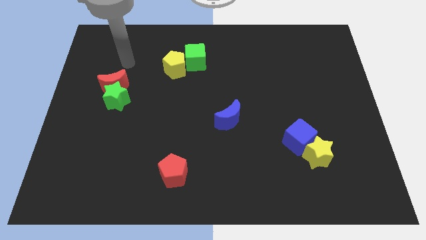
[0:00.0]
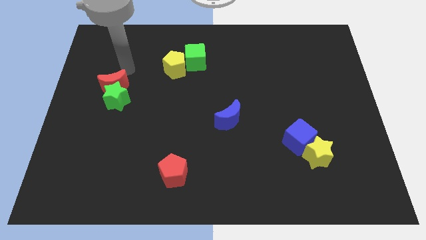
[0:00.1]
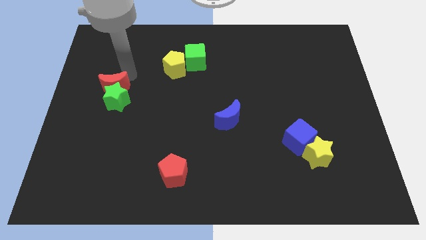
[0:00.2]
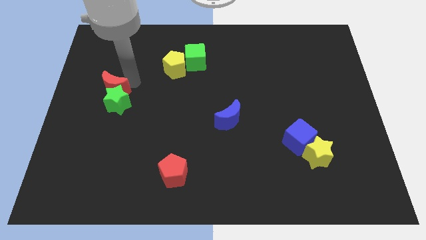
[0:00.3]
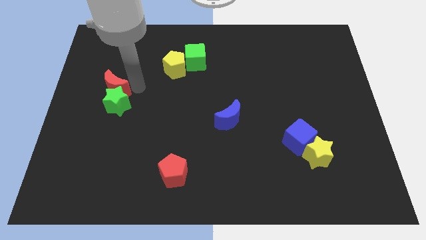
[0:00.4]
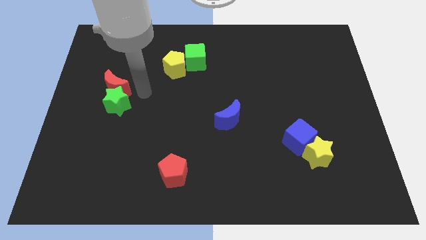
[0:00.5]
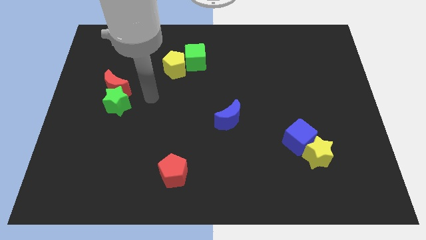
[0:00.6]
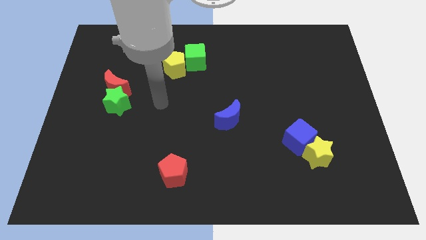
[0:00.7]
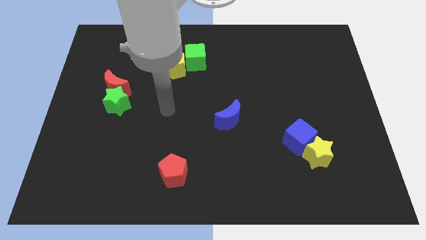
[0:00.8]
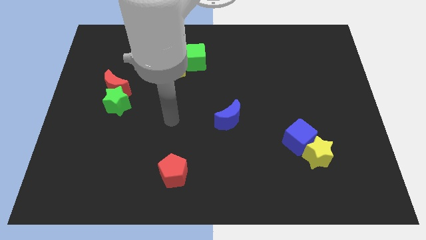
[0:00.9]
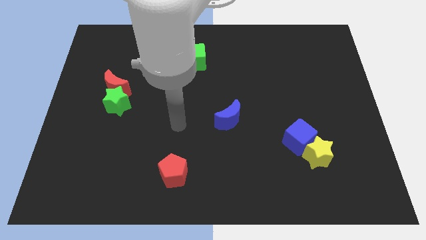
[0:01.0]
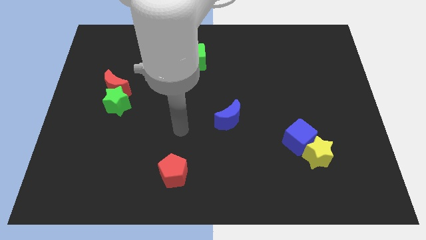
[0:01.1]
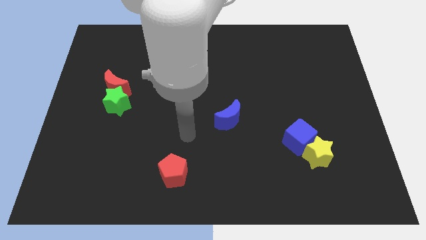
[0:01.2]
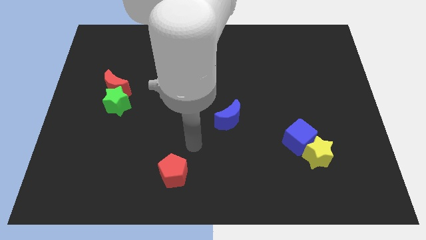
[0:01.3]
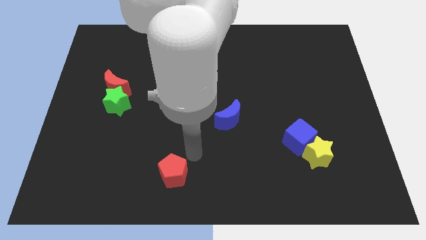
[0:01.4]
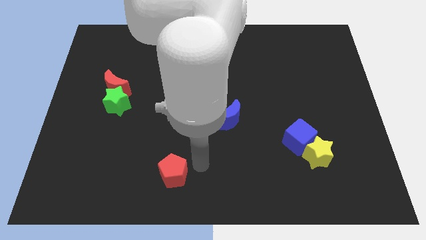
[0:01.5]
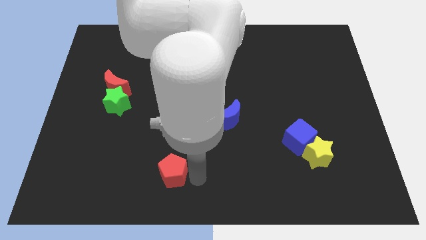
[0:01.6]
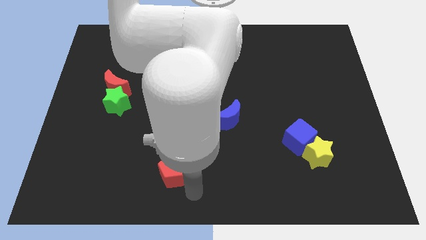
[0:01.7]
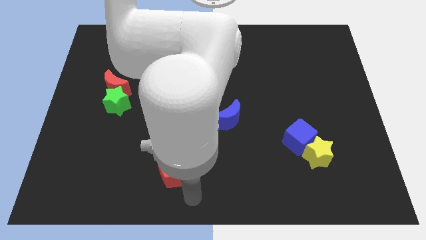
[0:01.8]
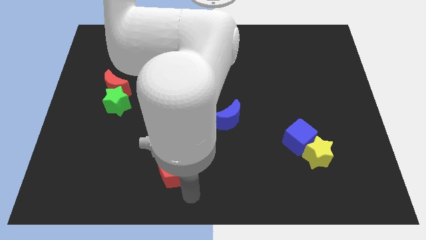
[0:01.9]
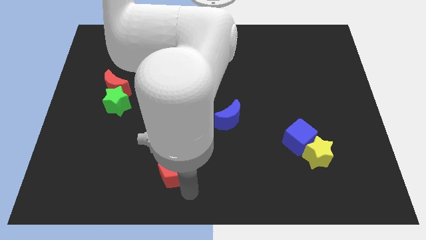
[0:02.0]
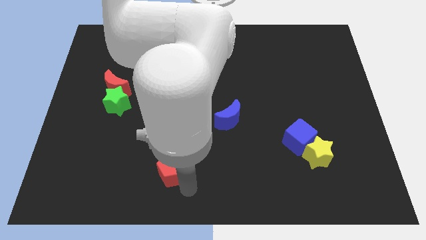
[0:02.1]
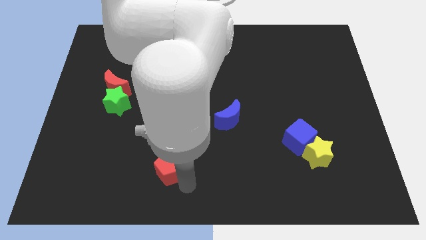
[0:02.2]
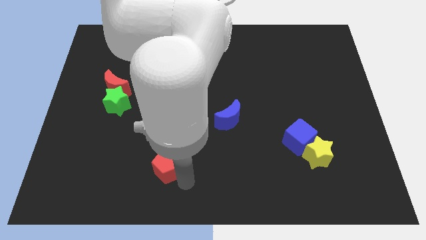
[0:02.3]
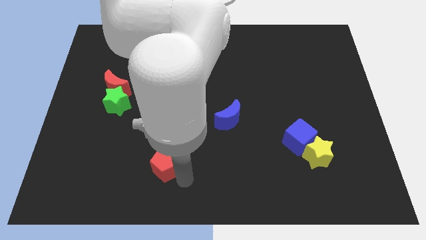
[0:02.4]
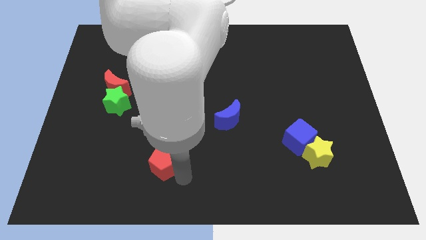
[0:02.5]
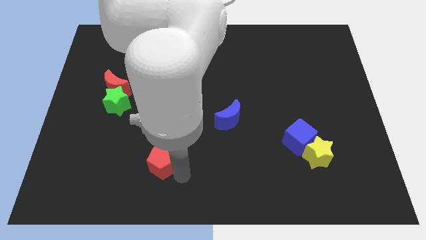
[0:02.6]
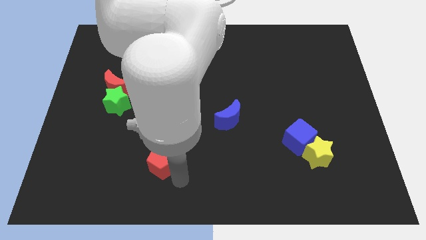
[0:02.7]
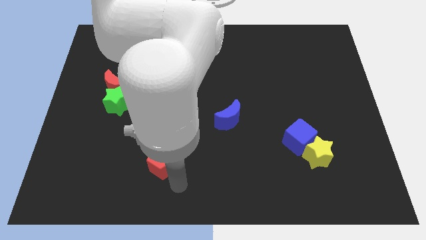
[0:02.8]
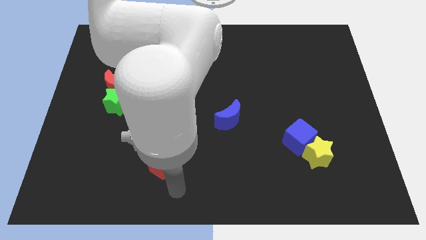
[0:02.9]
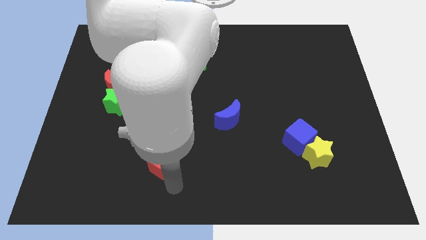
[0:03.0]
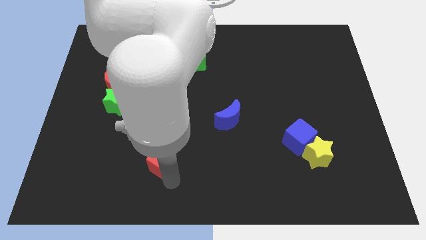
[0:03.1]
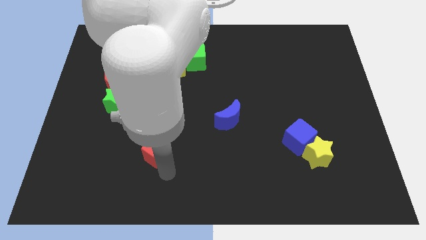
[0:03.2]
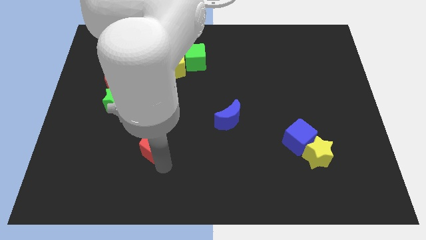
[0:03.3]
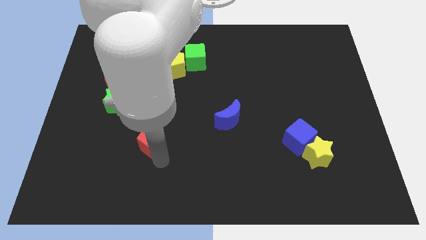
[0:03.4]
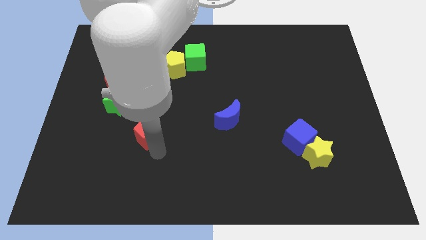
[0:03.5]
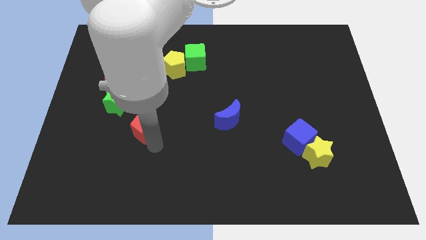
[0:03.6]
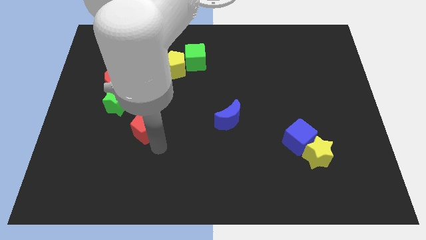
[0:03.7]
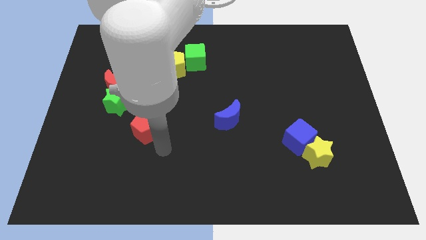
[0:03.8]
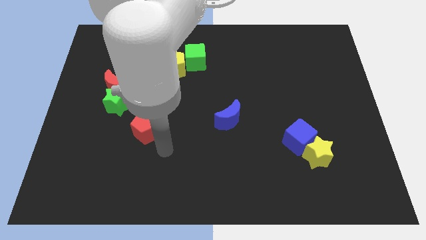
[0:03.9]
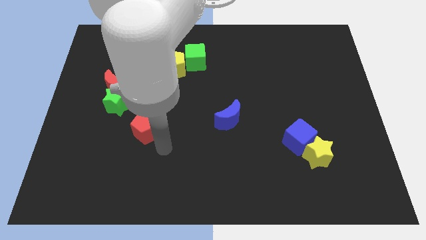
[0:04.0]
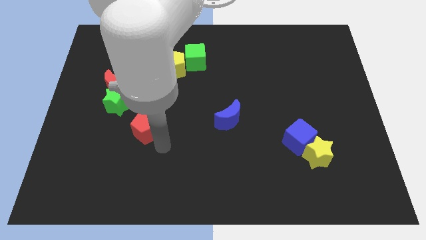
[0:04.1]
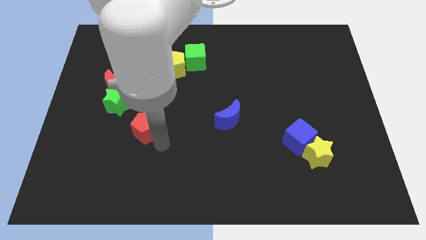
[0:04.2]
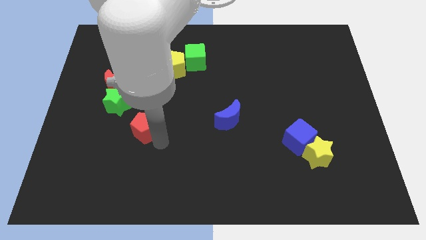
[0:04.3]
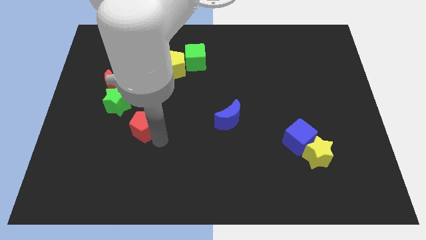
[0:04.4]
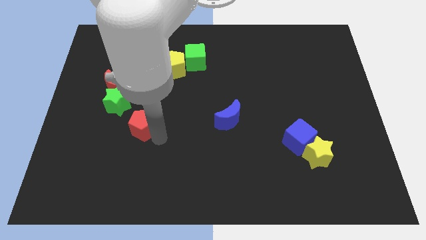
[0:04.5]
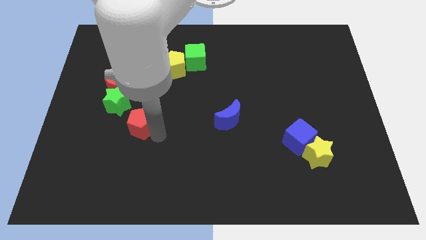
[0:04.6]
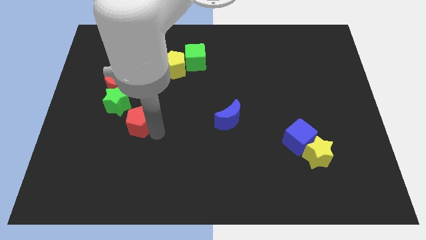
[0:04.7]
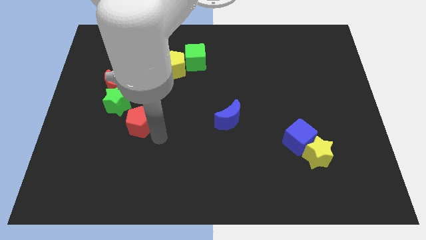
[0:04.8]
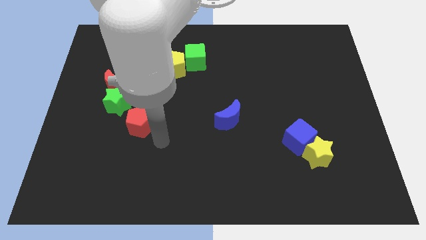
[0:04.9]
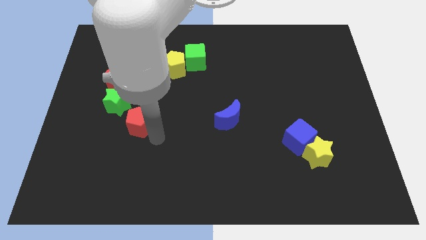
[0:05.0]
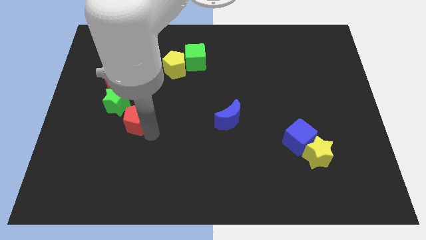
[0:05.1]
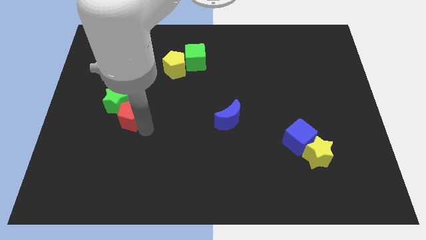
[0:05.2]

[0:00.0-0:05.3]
move the red pentagon next to the green star

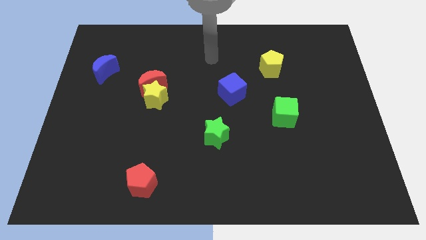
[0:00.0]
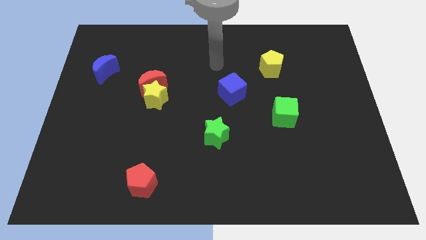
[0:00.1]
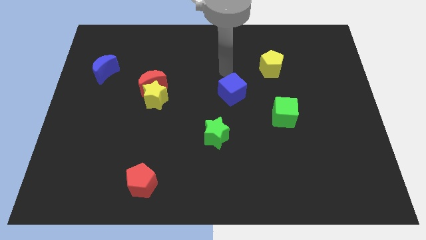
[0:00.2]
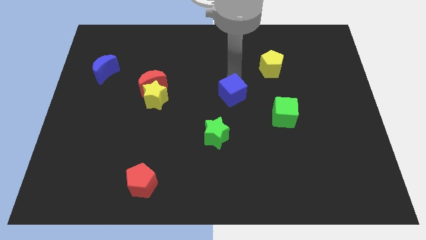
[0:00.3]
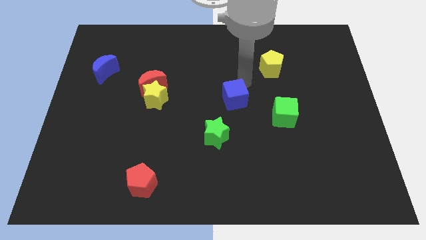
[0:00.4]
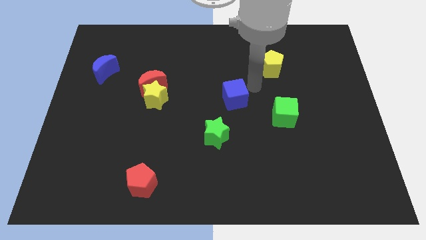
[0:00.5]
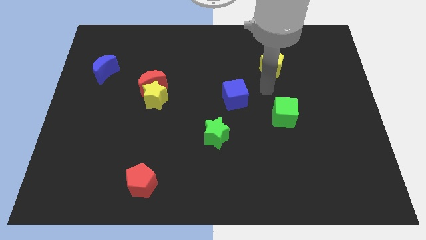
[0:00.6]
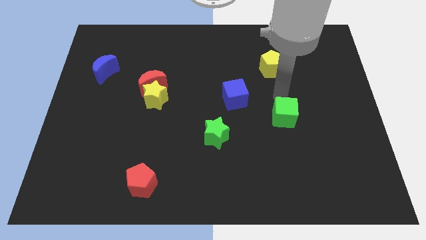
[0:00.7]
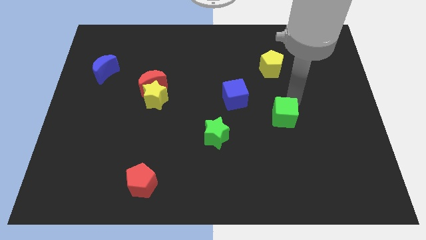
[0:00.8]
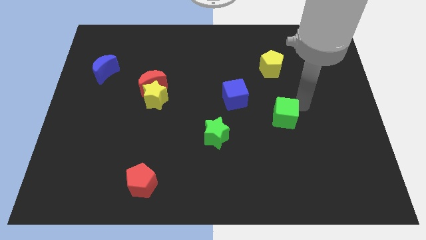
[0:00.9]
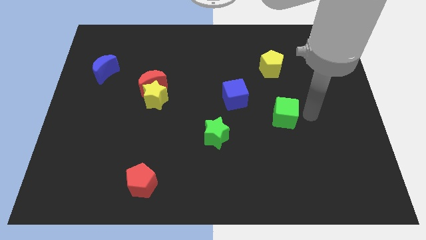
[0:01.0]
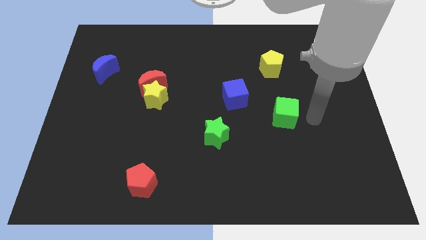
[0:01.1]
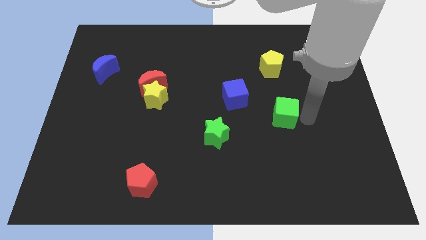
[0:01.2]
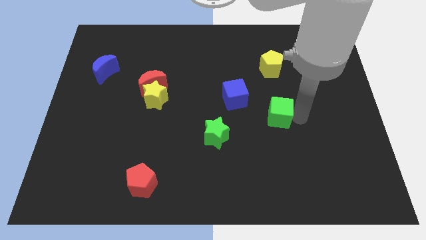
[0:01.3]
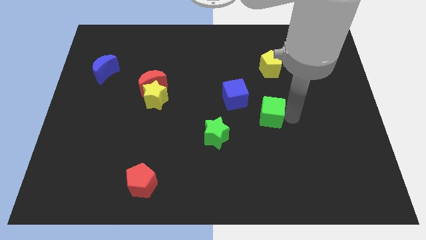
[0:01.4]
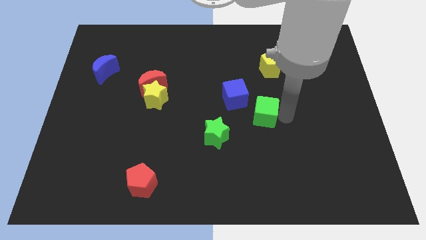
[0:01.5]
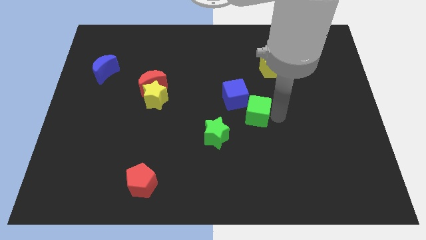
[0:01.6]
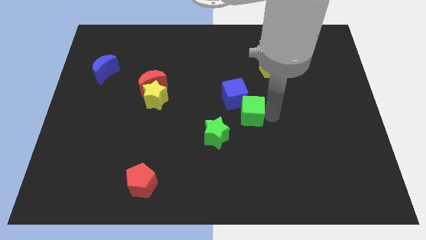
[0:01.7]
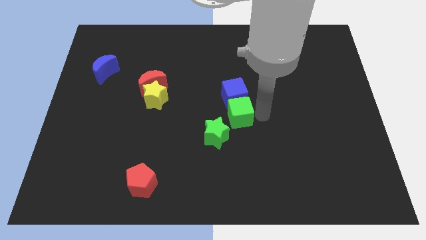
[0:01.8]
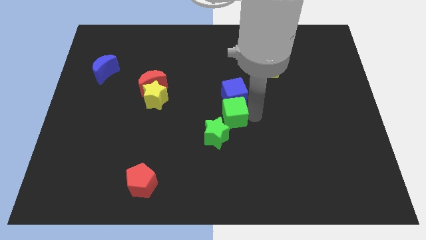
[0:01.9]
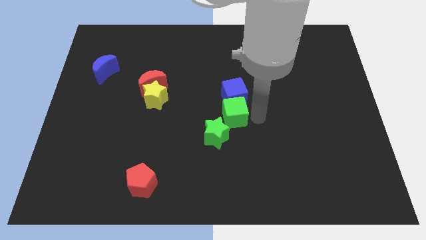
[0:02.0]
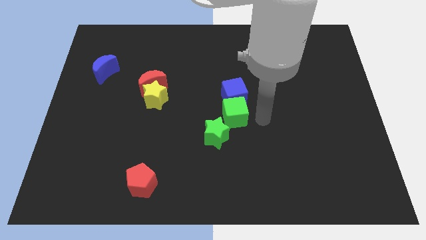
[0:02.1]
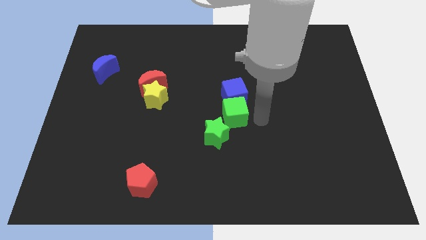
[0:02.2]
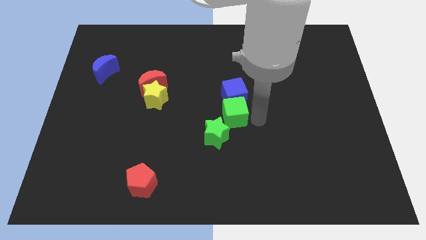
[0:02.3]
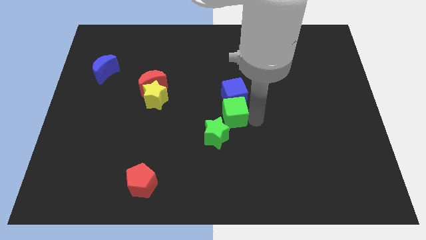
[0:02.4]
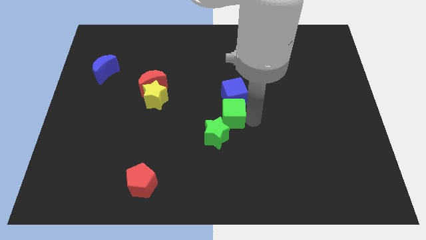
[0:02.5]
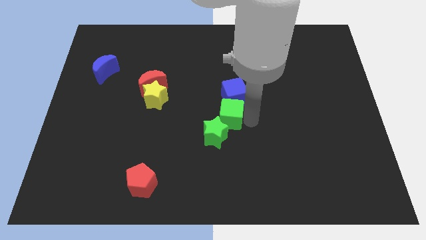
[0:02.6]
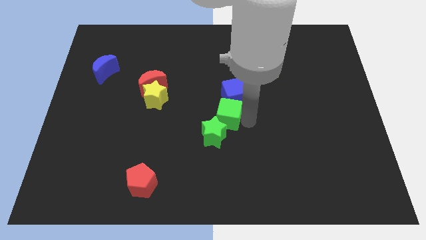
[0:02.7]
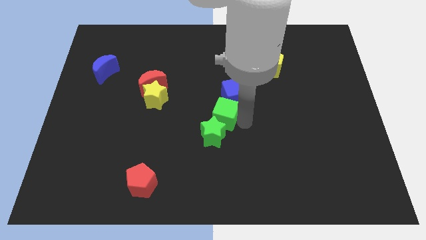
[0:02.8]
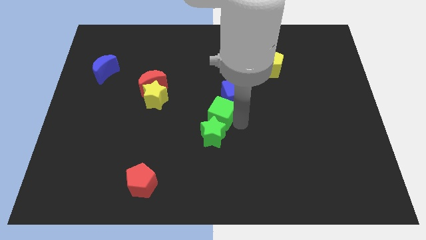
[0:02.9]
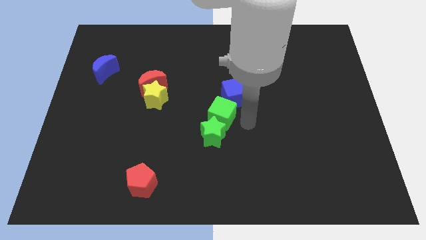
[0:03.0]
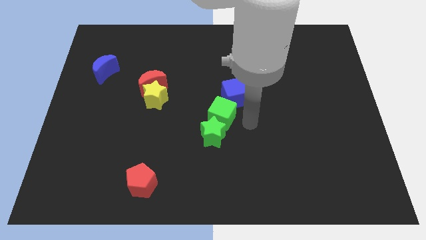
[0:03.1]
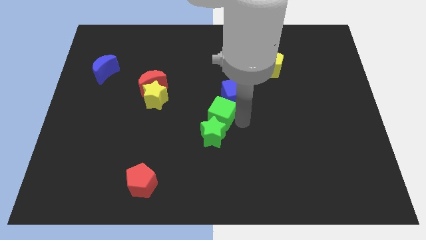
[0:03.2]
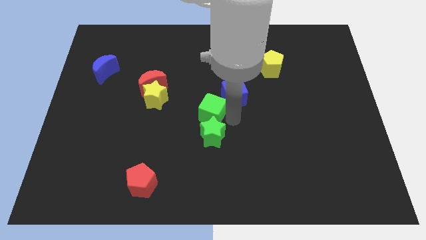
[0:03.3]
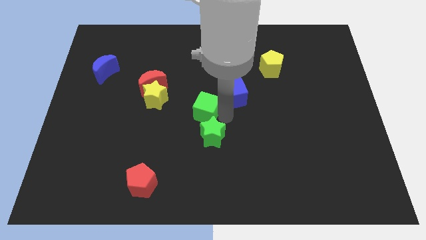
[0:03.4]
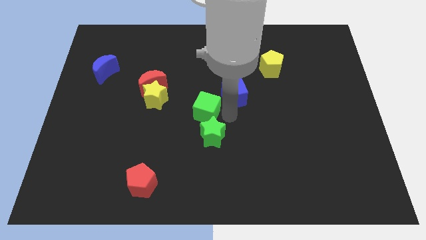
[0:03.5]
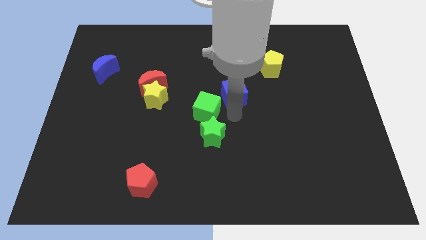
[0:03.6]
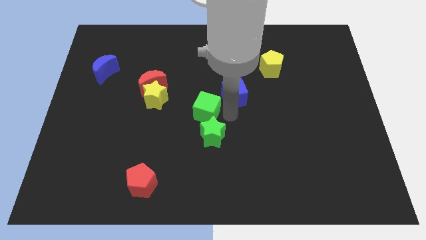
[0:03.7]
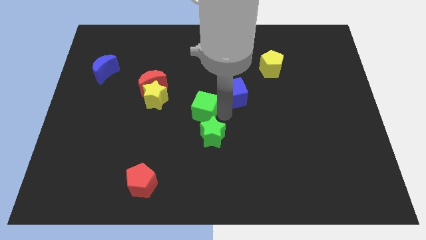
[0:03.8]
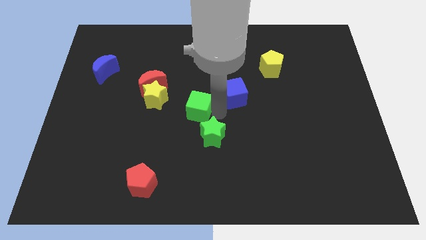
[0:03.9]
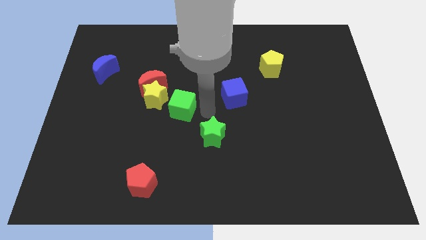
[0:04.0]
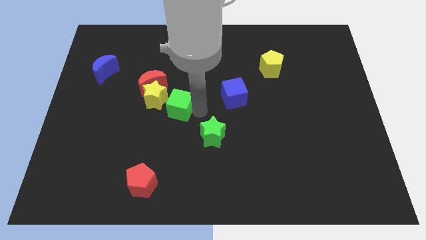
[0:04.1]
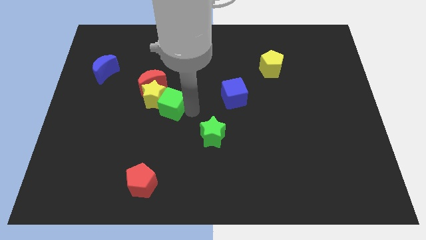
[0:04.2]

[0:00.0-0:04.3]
put the green cube towards the yellow star
